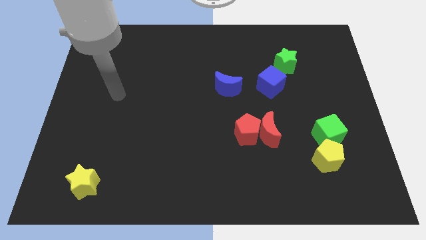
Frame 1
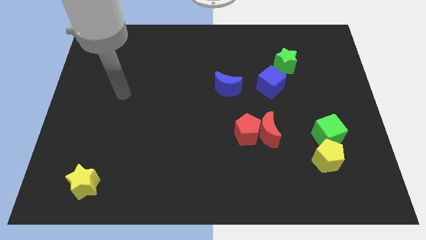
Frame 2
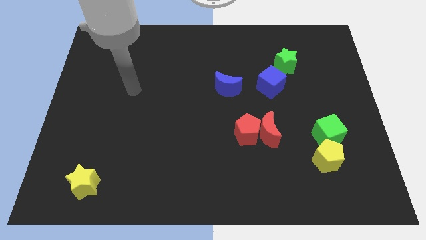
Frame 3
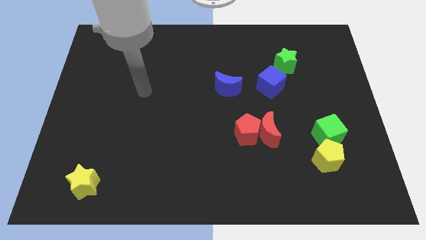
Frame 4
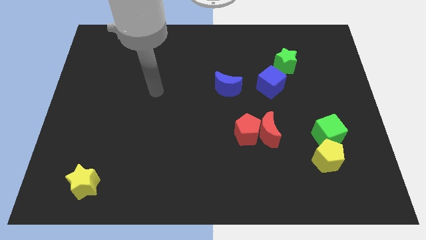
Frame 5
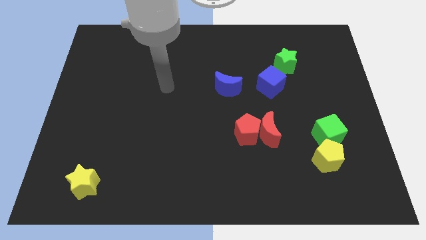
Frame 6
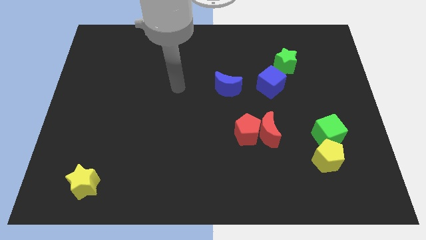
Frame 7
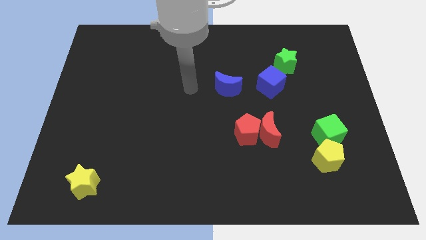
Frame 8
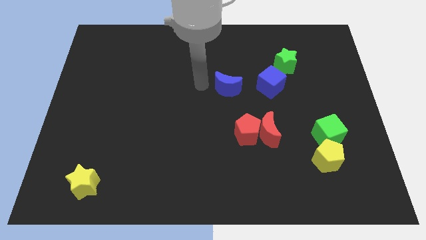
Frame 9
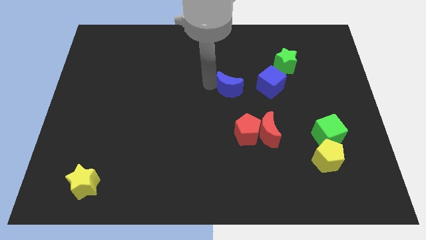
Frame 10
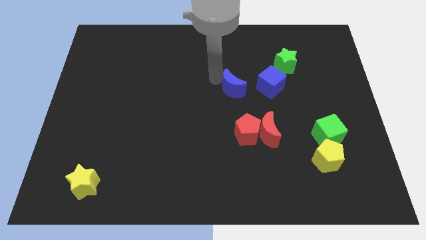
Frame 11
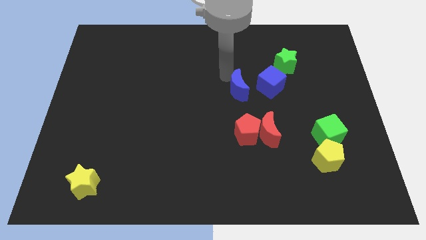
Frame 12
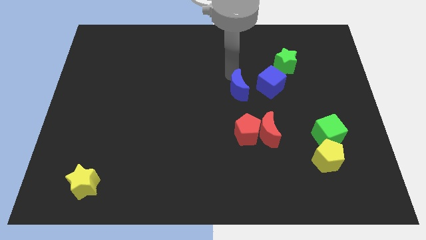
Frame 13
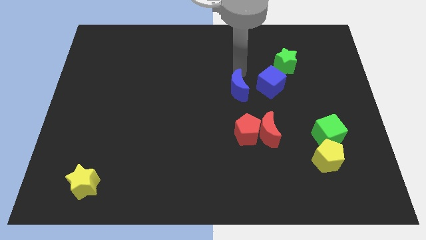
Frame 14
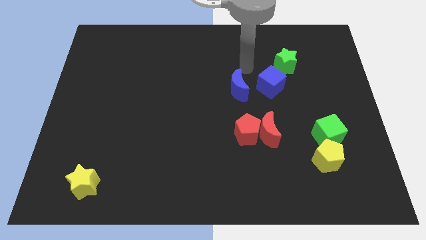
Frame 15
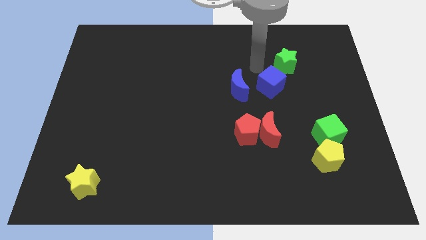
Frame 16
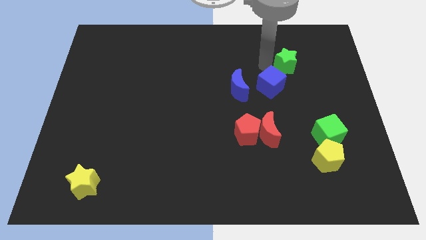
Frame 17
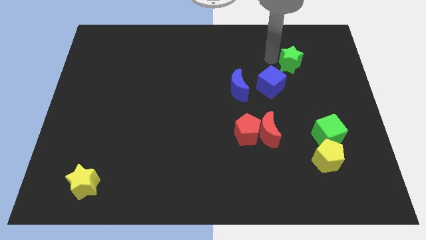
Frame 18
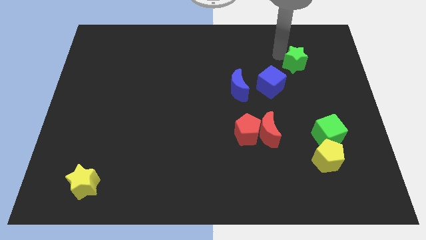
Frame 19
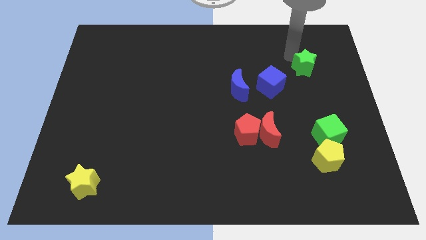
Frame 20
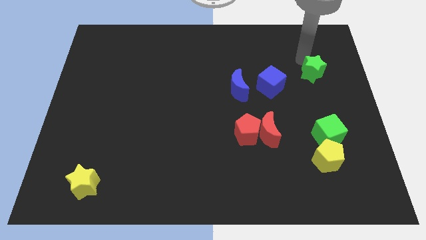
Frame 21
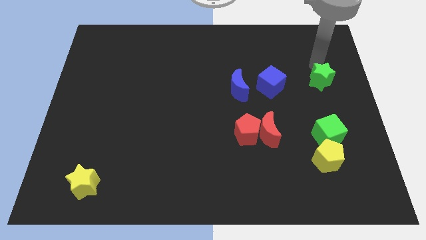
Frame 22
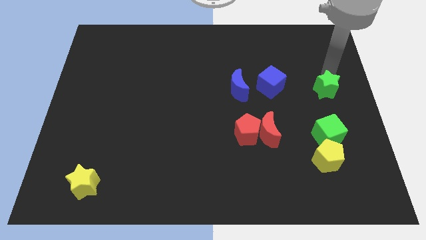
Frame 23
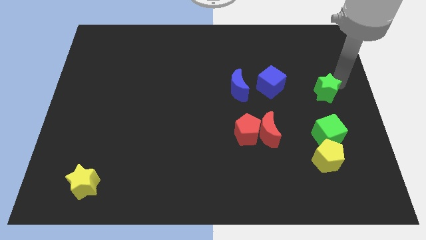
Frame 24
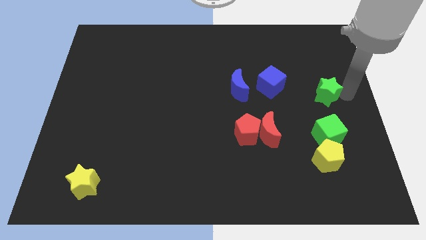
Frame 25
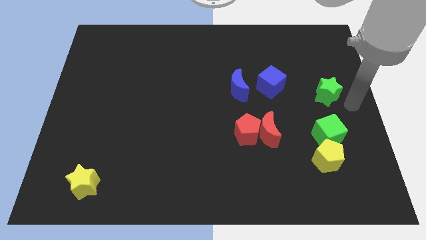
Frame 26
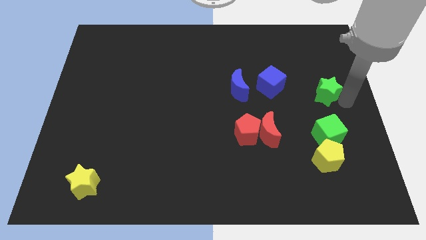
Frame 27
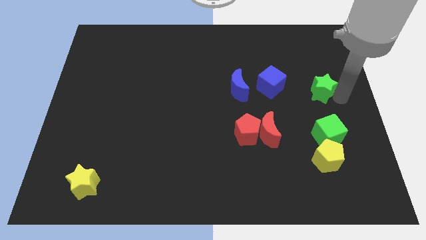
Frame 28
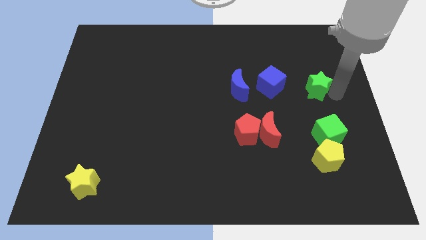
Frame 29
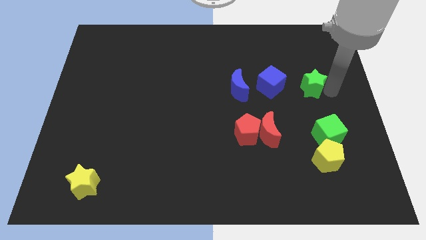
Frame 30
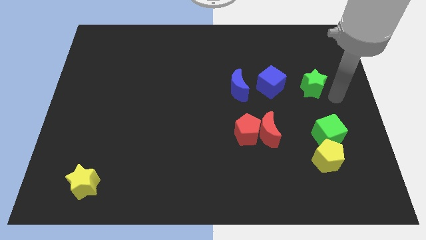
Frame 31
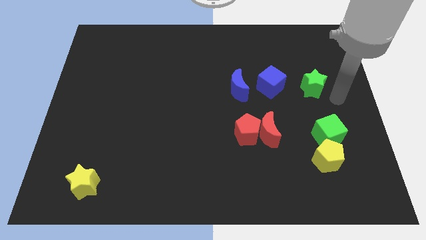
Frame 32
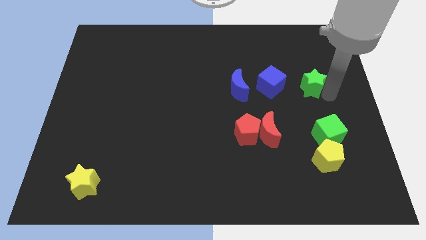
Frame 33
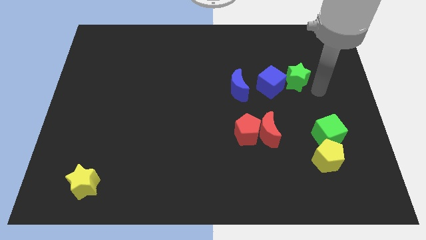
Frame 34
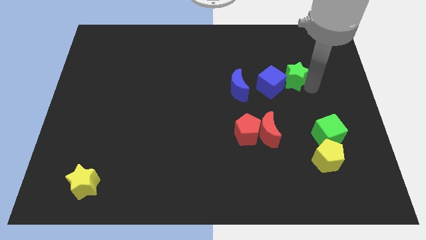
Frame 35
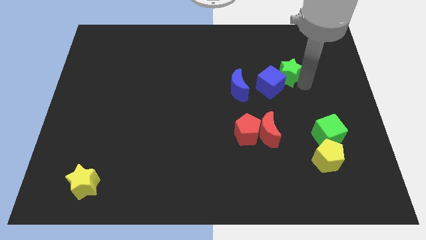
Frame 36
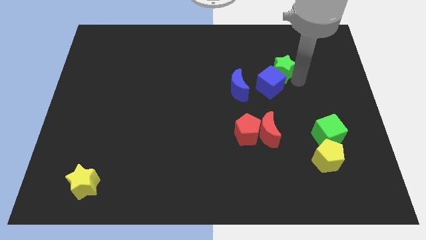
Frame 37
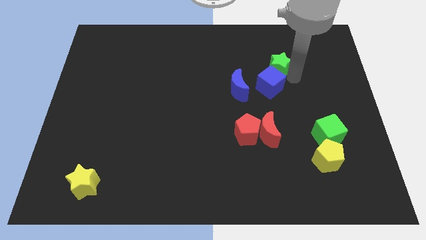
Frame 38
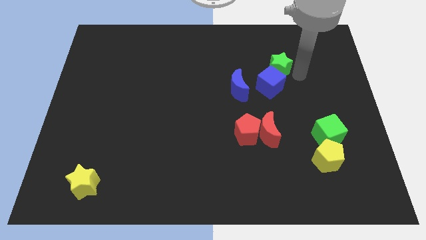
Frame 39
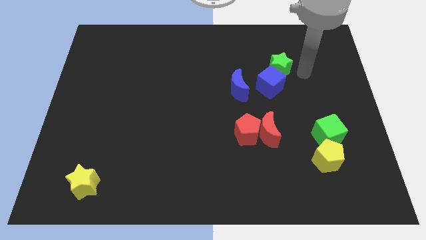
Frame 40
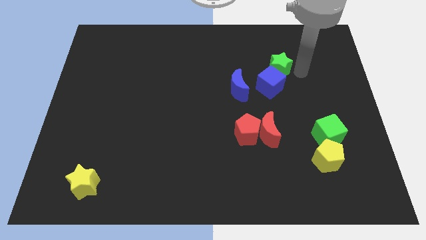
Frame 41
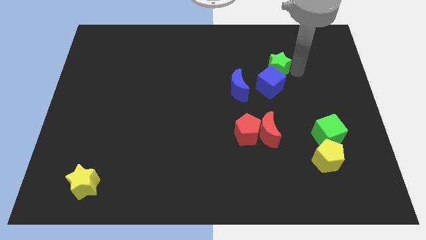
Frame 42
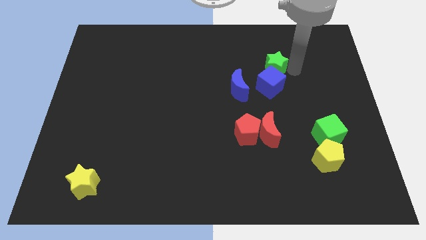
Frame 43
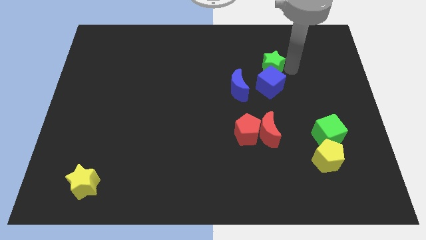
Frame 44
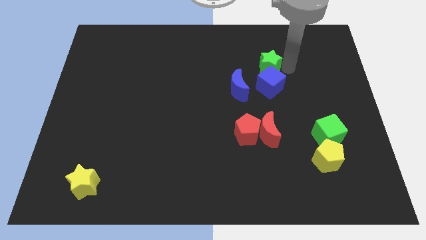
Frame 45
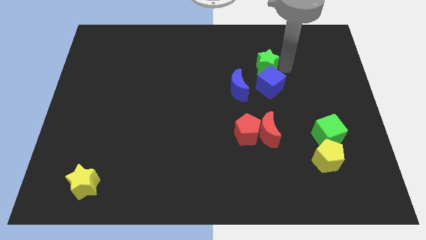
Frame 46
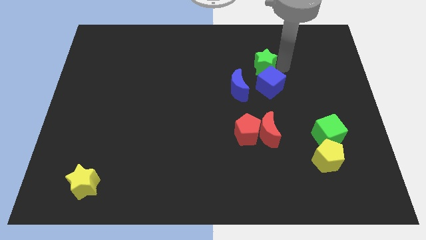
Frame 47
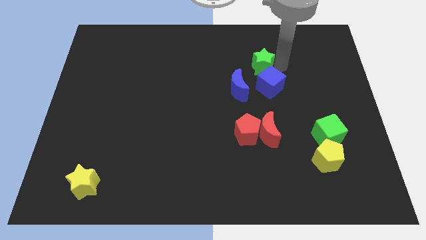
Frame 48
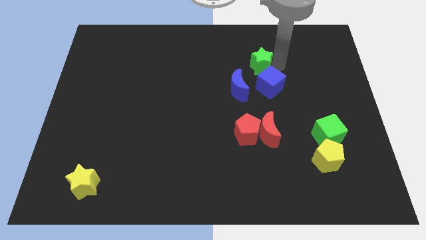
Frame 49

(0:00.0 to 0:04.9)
push the green star to the left slightly

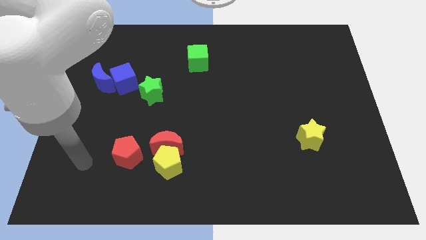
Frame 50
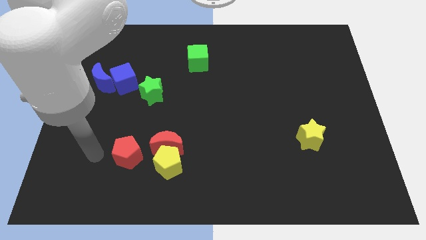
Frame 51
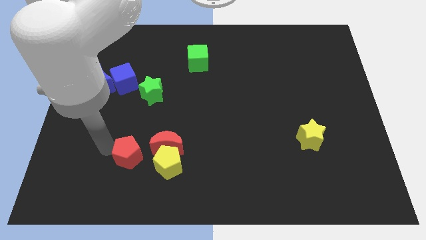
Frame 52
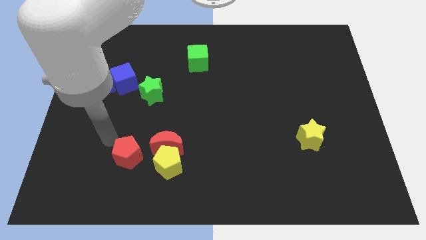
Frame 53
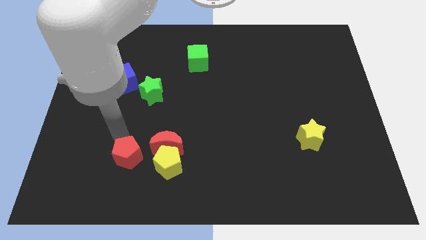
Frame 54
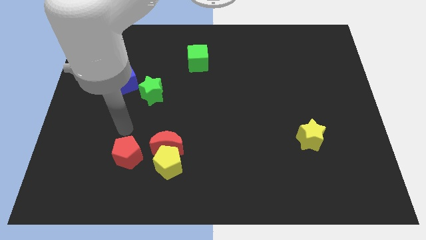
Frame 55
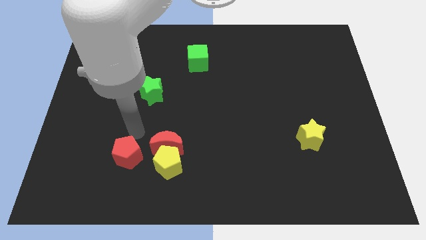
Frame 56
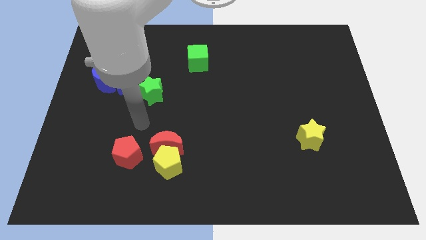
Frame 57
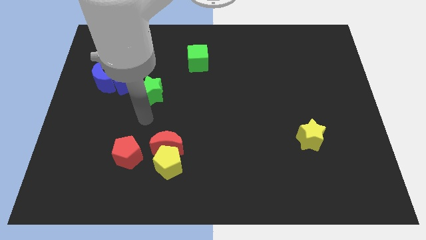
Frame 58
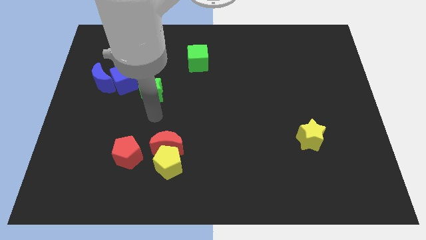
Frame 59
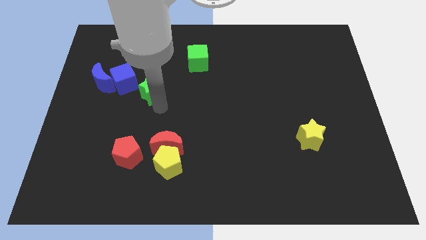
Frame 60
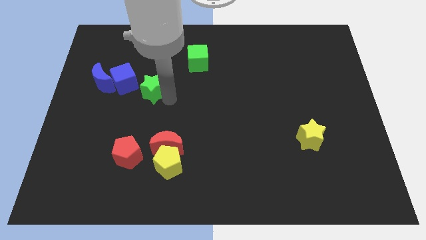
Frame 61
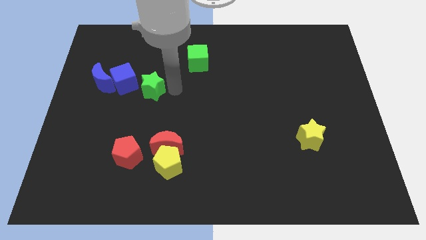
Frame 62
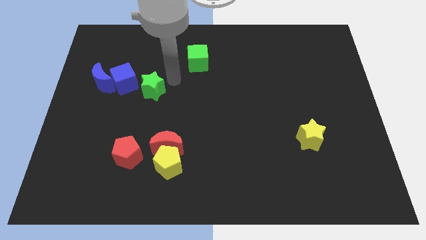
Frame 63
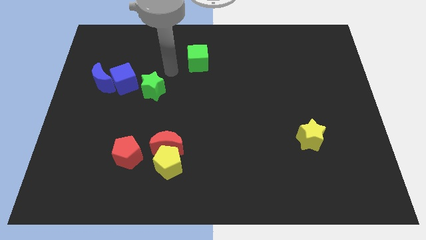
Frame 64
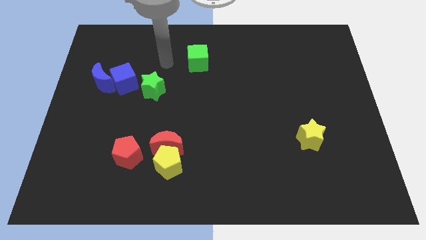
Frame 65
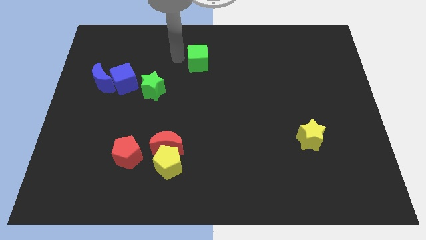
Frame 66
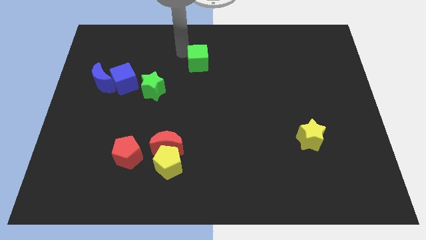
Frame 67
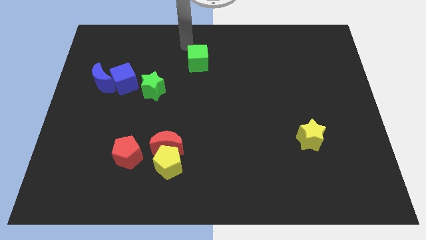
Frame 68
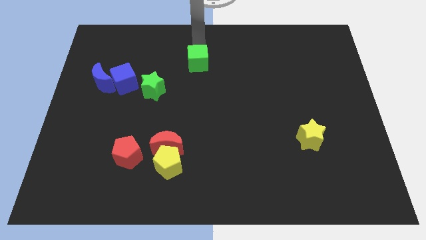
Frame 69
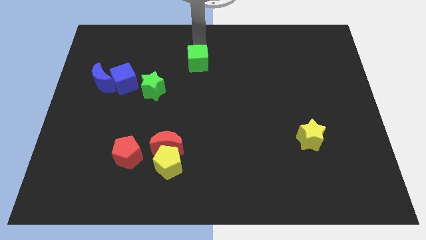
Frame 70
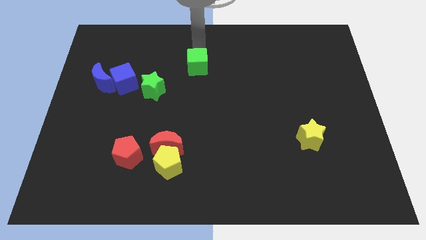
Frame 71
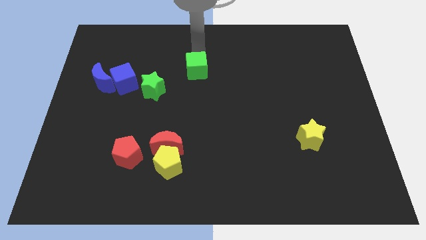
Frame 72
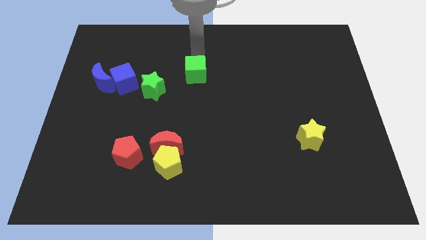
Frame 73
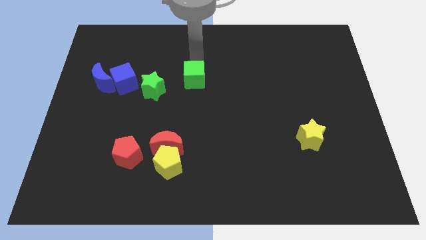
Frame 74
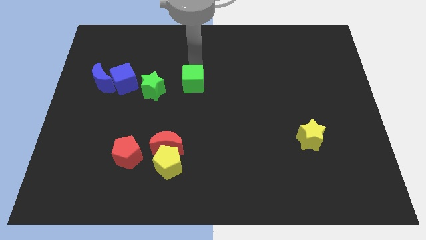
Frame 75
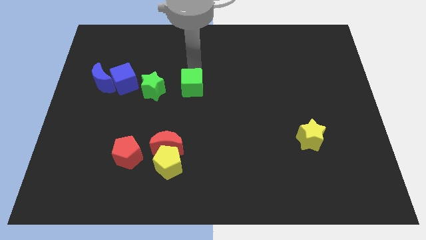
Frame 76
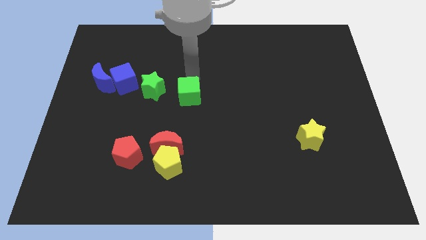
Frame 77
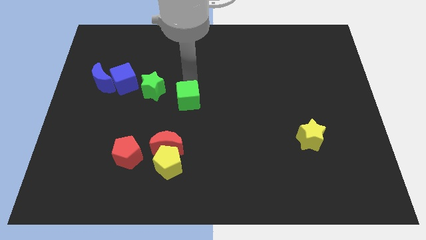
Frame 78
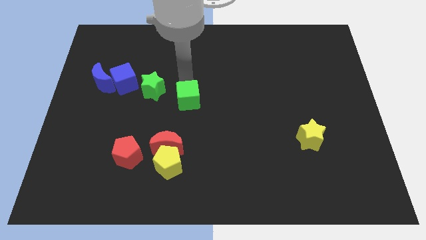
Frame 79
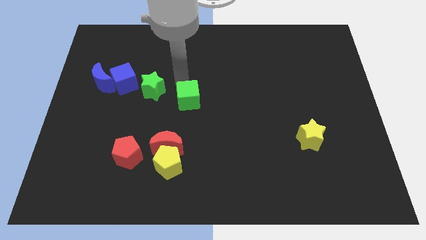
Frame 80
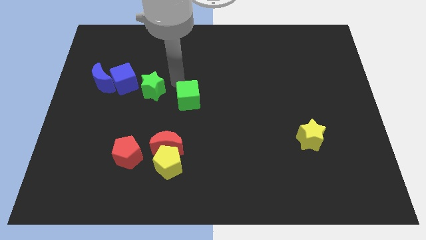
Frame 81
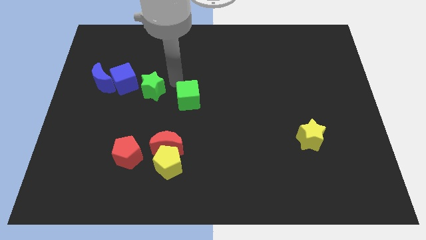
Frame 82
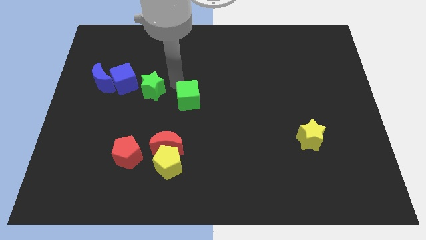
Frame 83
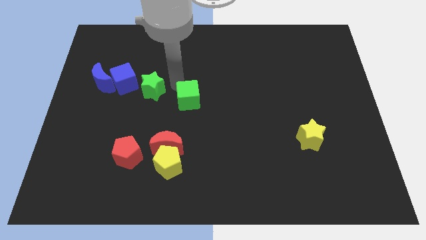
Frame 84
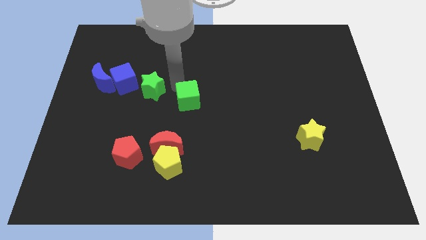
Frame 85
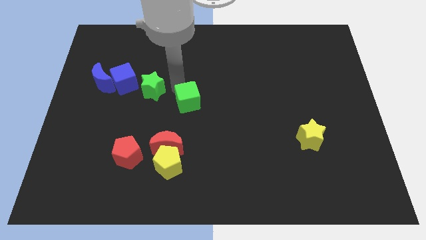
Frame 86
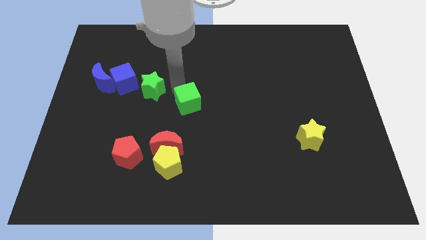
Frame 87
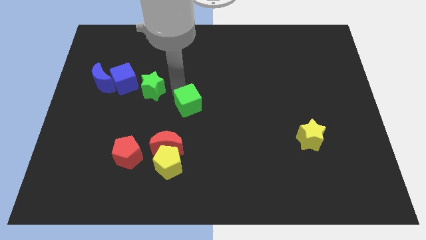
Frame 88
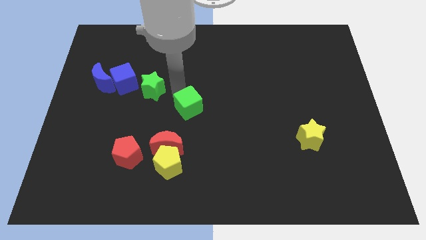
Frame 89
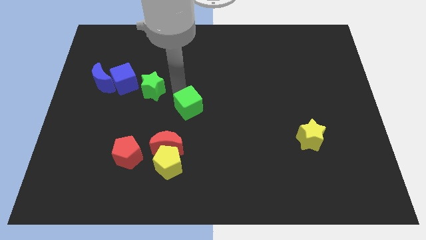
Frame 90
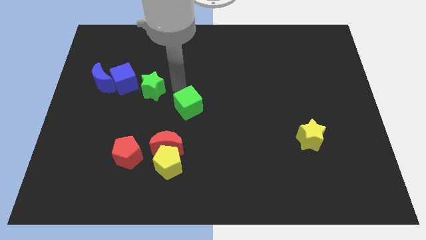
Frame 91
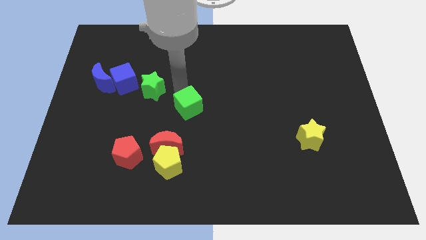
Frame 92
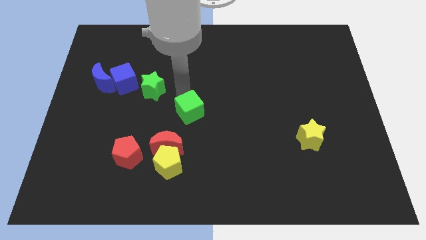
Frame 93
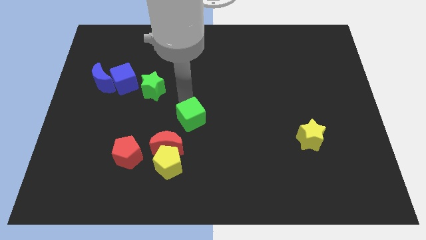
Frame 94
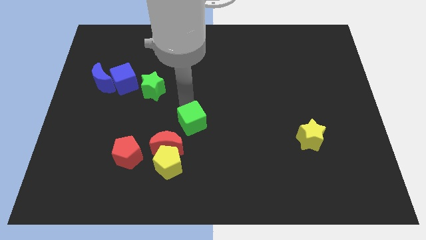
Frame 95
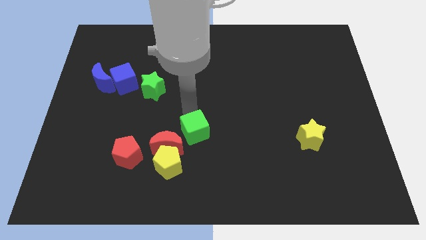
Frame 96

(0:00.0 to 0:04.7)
push the green cube downwards
